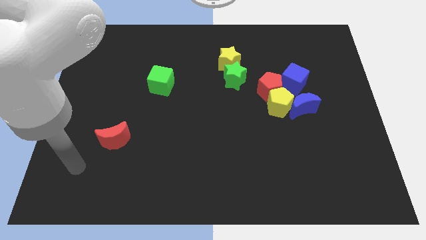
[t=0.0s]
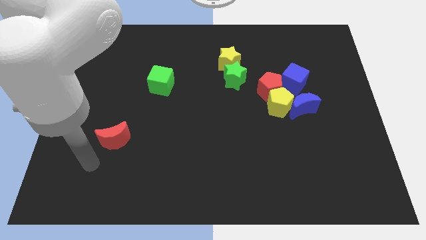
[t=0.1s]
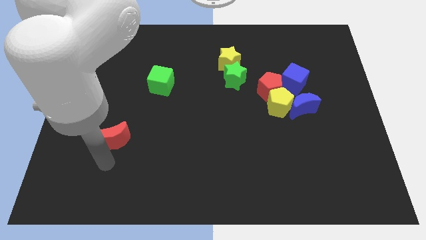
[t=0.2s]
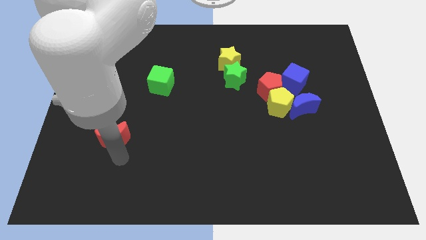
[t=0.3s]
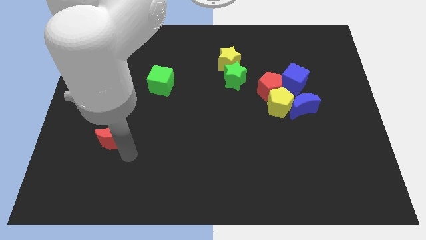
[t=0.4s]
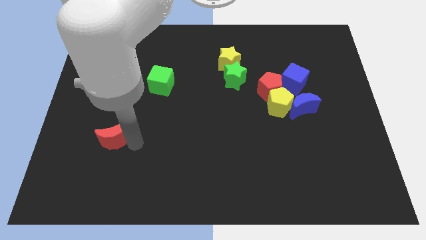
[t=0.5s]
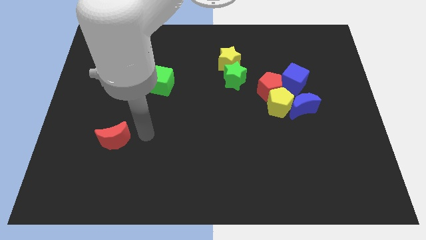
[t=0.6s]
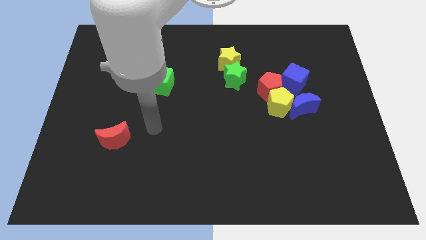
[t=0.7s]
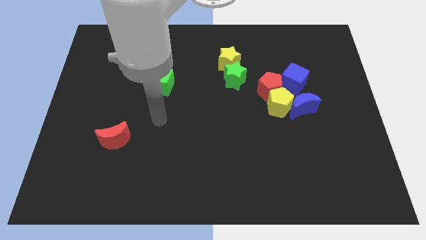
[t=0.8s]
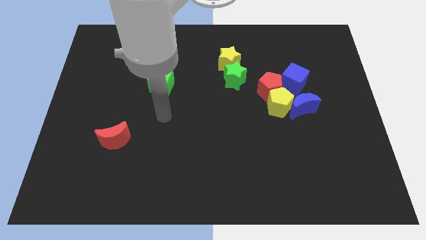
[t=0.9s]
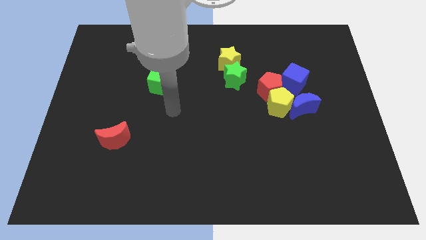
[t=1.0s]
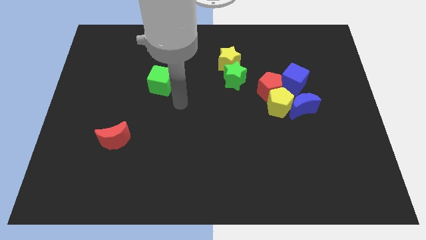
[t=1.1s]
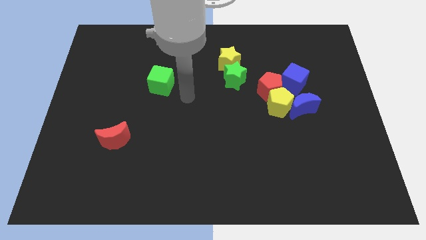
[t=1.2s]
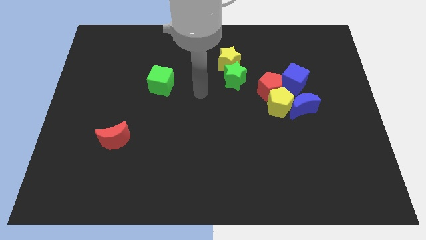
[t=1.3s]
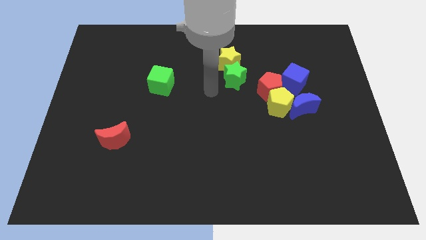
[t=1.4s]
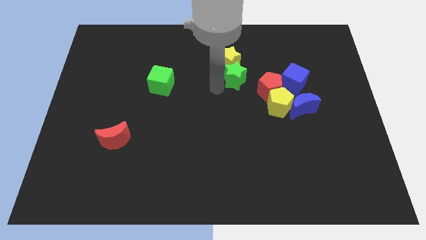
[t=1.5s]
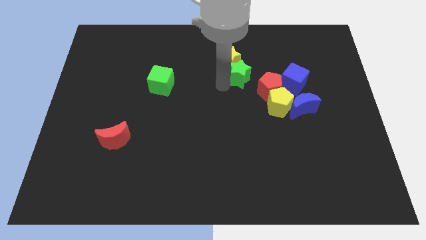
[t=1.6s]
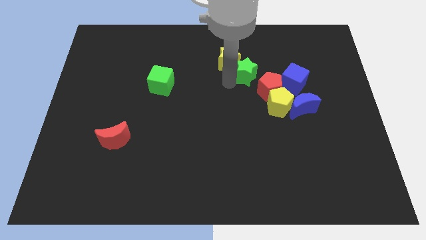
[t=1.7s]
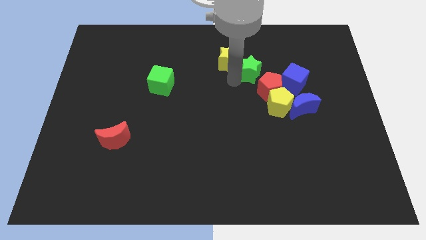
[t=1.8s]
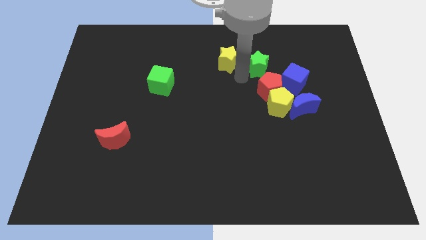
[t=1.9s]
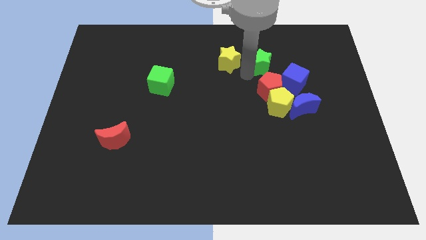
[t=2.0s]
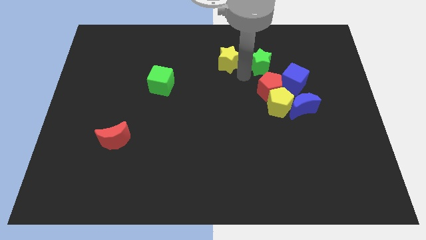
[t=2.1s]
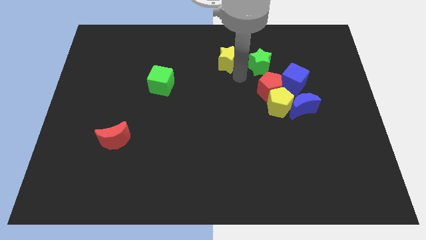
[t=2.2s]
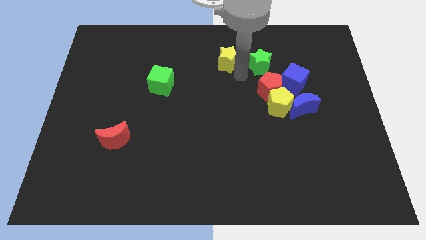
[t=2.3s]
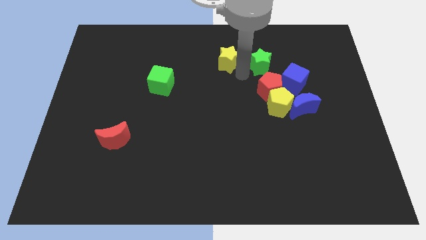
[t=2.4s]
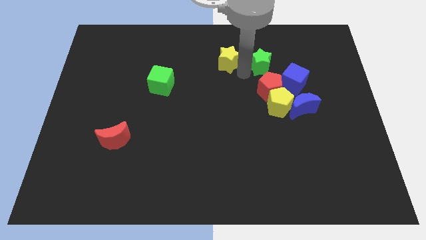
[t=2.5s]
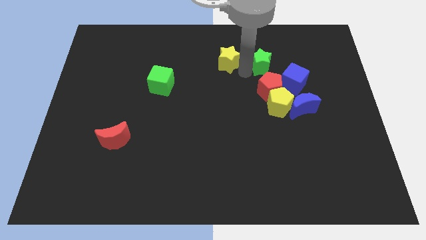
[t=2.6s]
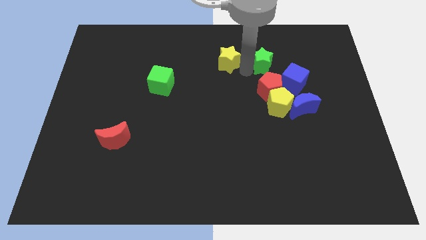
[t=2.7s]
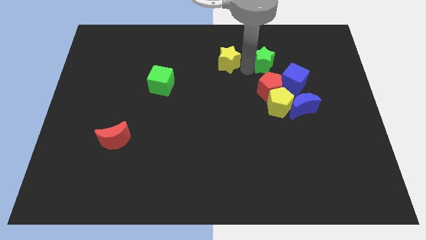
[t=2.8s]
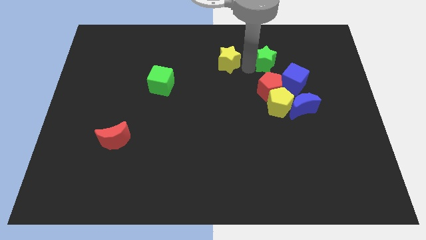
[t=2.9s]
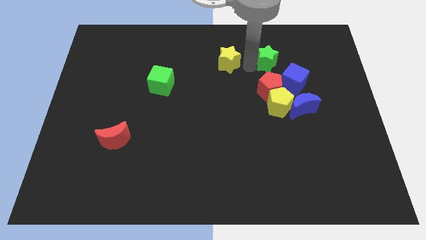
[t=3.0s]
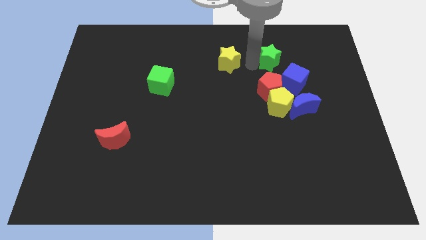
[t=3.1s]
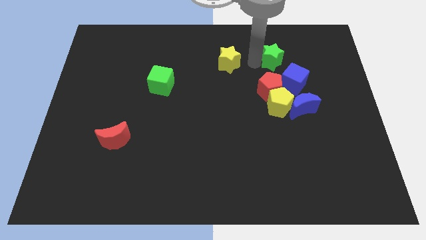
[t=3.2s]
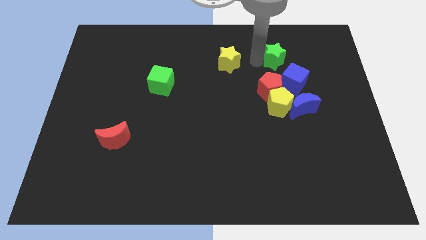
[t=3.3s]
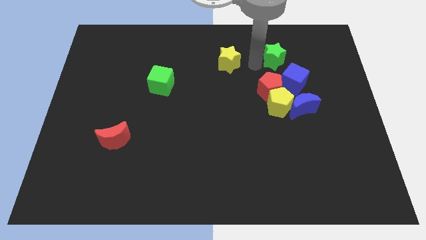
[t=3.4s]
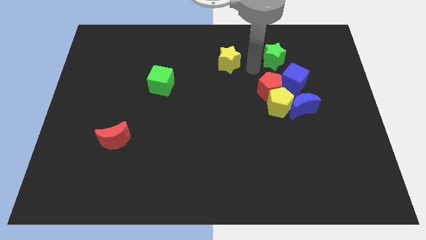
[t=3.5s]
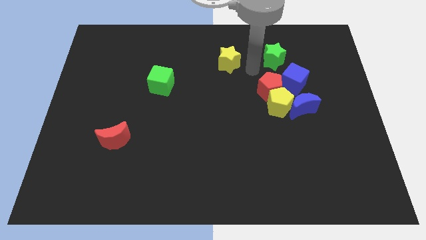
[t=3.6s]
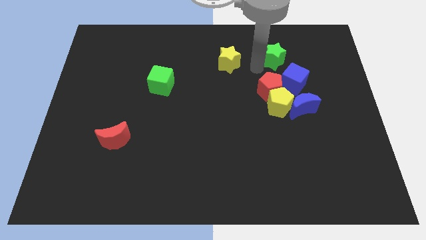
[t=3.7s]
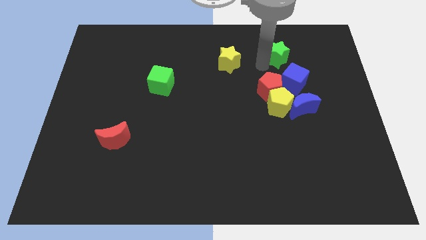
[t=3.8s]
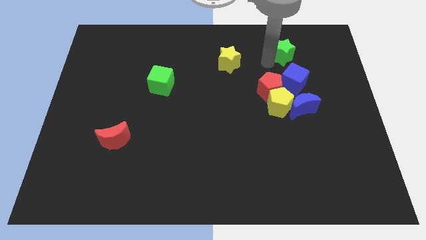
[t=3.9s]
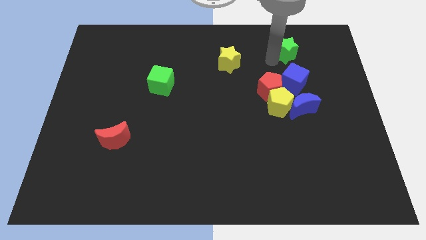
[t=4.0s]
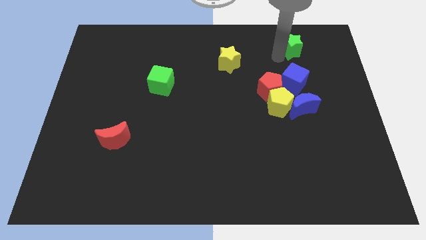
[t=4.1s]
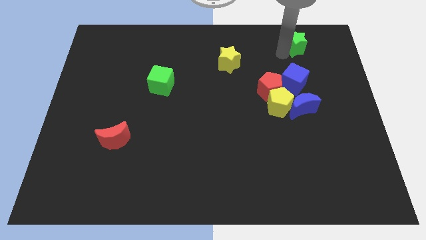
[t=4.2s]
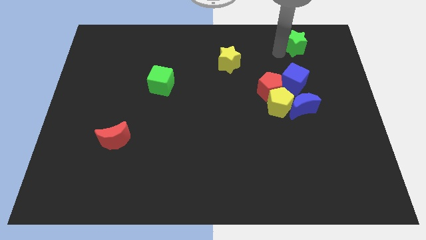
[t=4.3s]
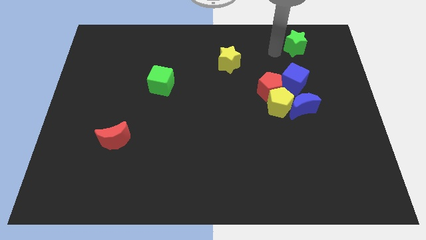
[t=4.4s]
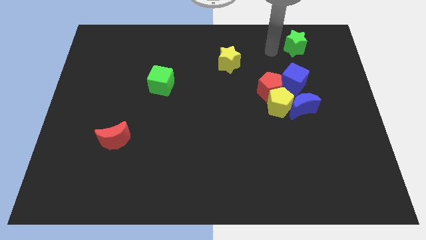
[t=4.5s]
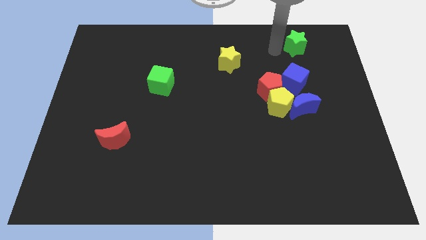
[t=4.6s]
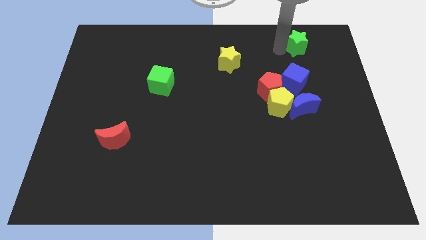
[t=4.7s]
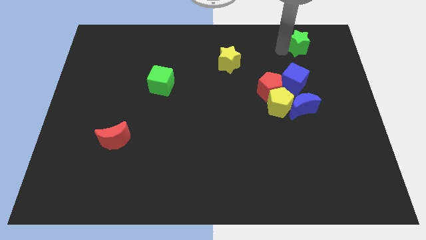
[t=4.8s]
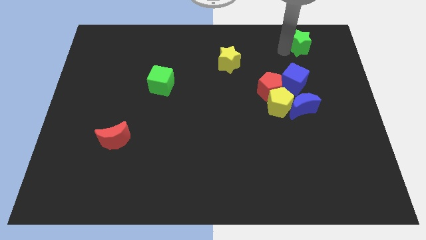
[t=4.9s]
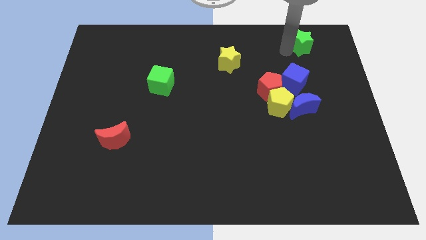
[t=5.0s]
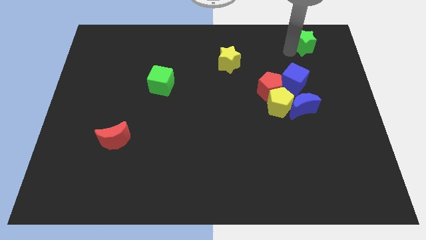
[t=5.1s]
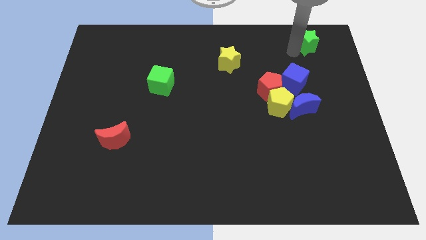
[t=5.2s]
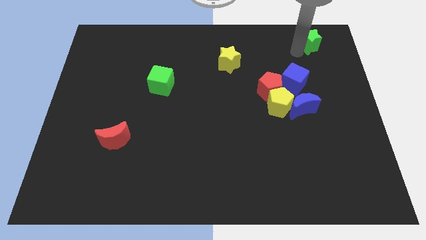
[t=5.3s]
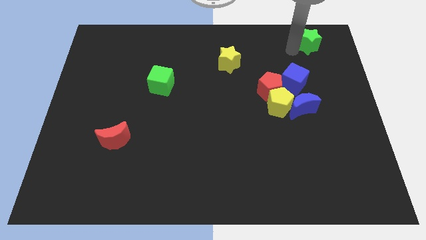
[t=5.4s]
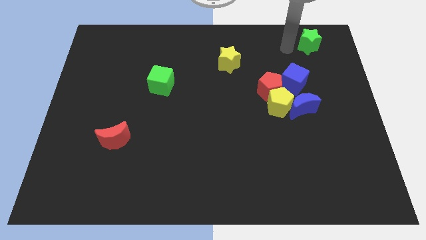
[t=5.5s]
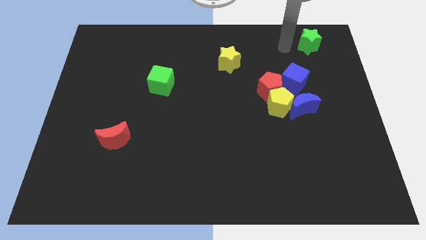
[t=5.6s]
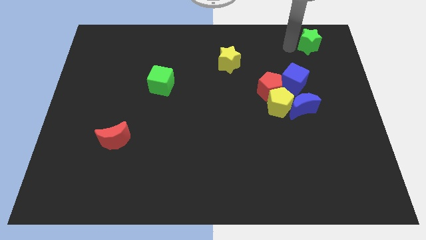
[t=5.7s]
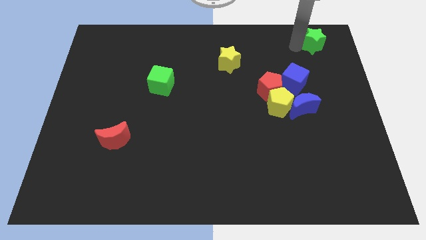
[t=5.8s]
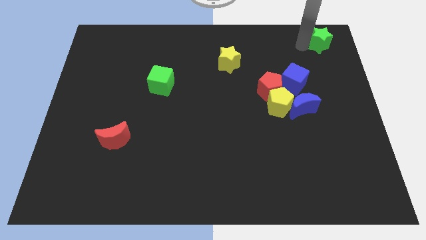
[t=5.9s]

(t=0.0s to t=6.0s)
slide the green star to the top right corner

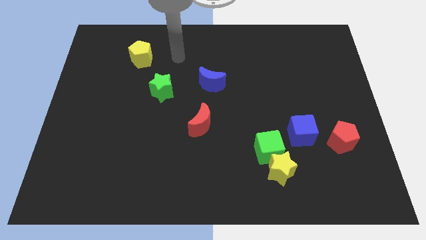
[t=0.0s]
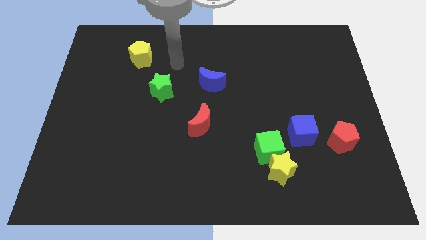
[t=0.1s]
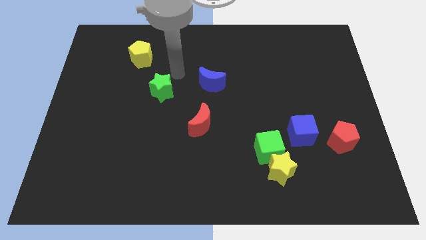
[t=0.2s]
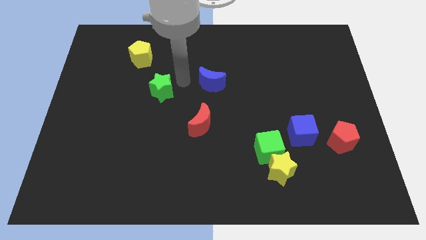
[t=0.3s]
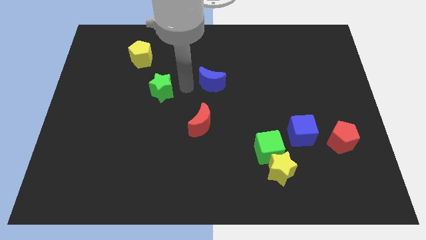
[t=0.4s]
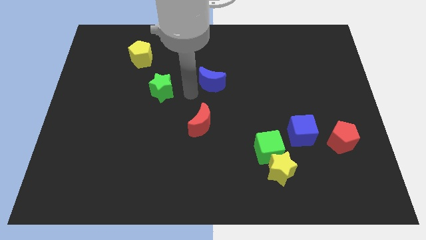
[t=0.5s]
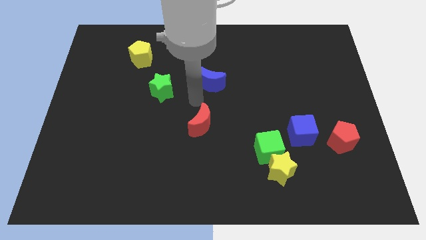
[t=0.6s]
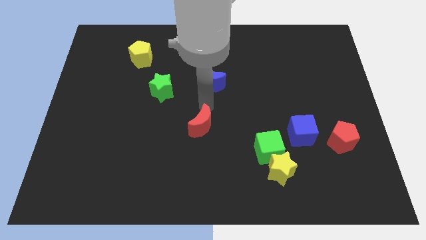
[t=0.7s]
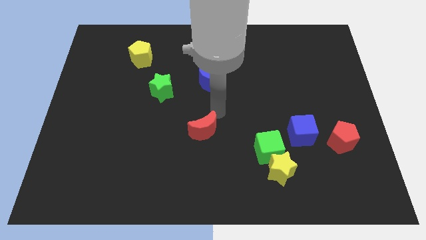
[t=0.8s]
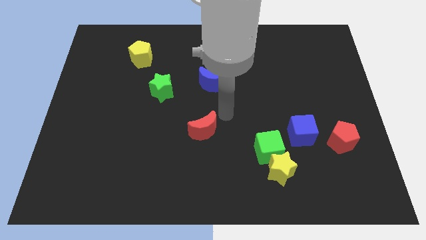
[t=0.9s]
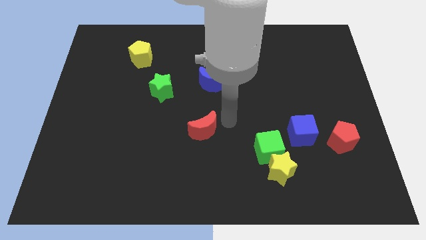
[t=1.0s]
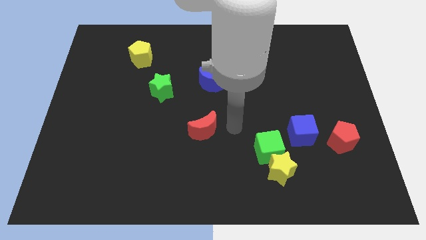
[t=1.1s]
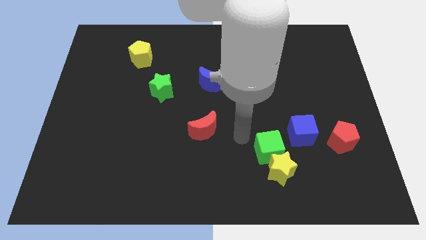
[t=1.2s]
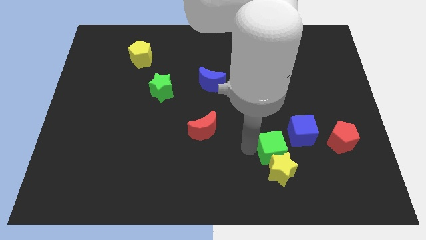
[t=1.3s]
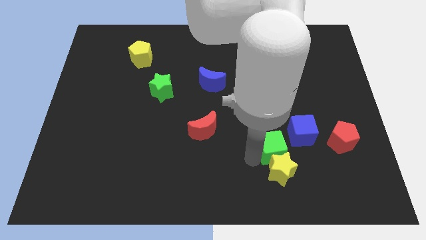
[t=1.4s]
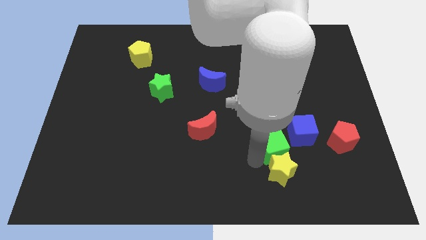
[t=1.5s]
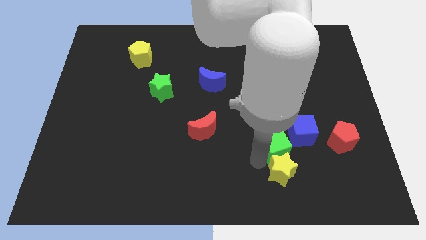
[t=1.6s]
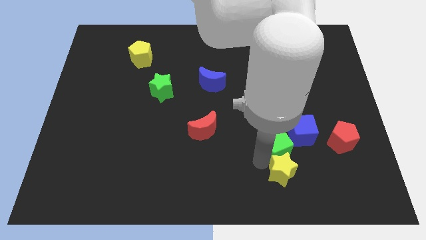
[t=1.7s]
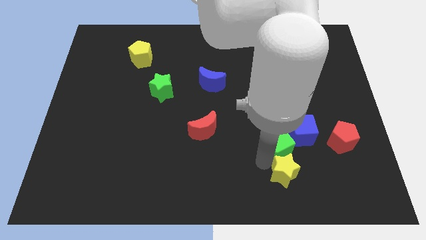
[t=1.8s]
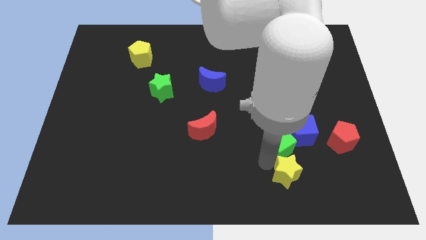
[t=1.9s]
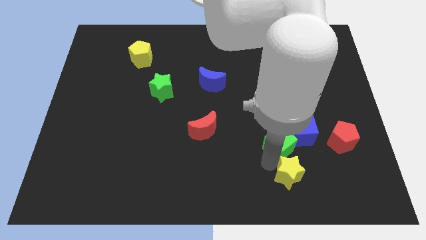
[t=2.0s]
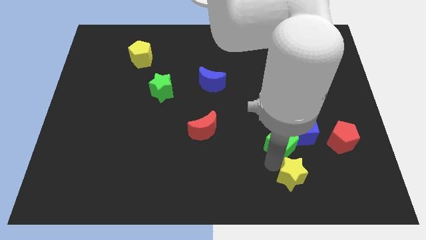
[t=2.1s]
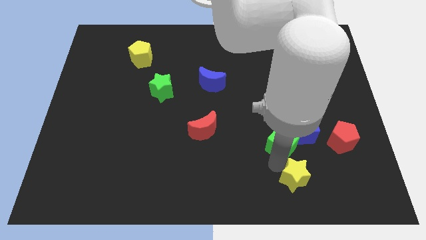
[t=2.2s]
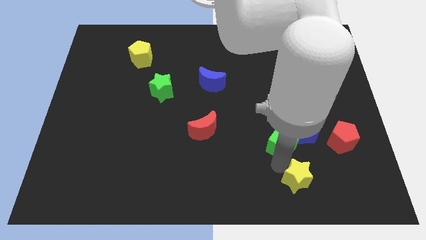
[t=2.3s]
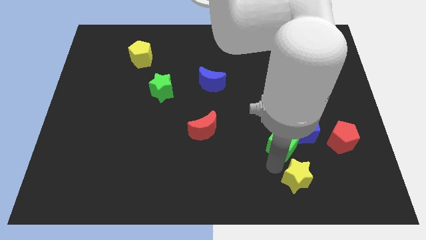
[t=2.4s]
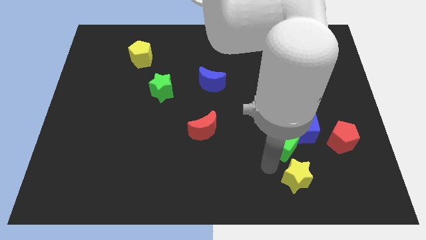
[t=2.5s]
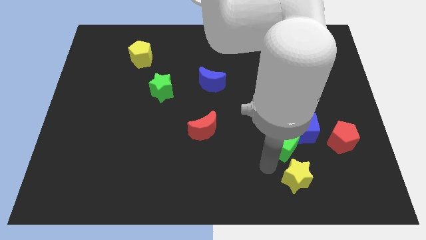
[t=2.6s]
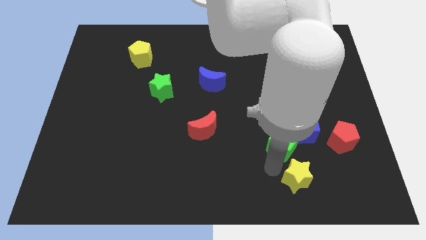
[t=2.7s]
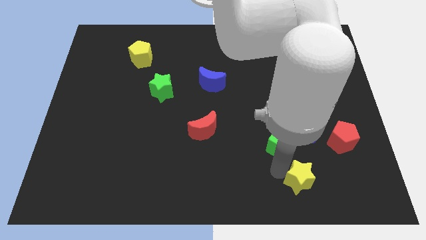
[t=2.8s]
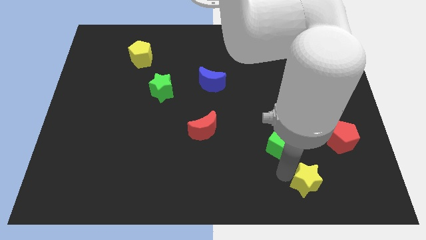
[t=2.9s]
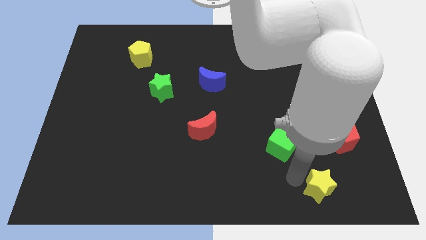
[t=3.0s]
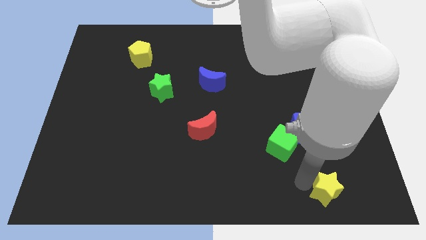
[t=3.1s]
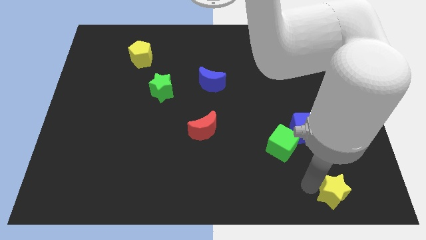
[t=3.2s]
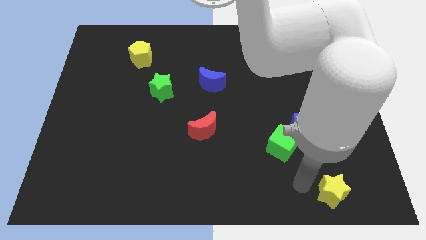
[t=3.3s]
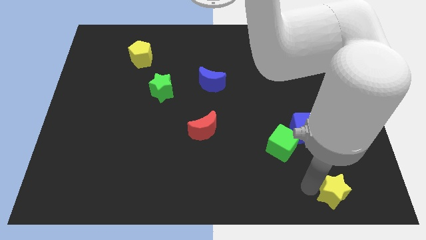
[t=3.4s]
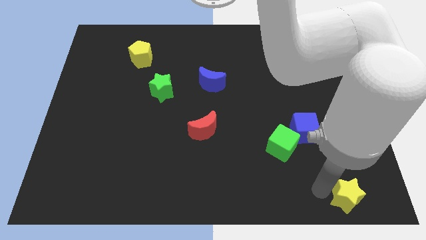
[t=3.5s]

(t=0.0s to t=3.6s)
put the yellow star to the bottom right of the board
